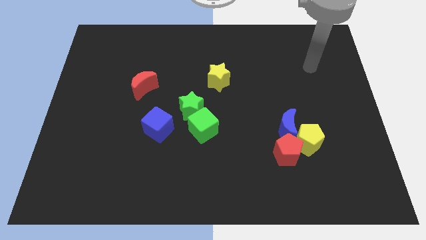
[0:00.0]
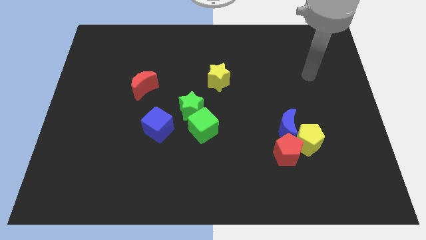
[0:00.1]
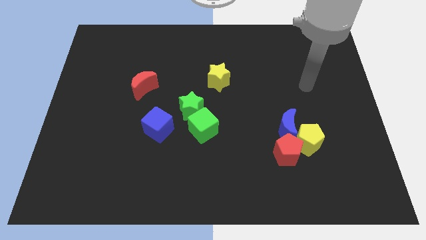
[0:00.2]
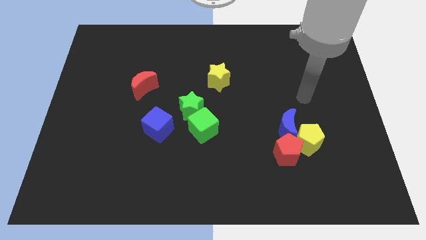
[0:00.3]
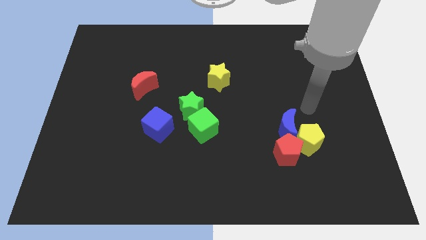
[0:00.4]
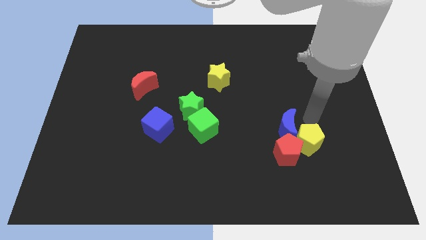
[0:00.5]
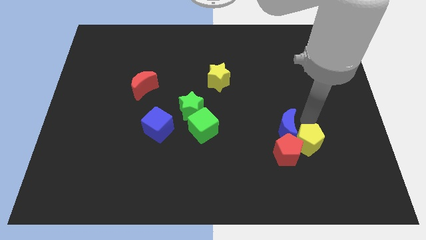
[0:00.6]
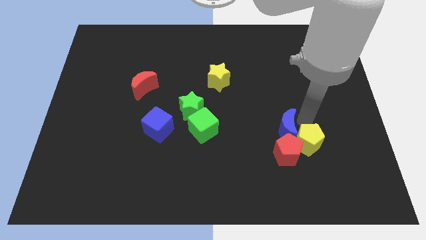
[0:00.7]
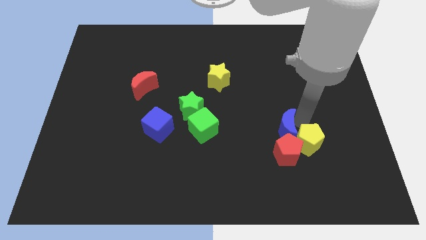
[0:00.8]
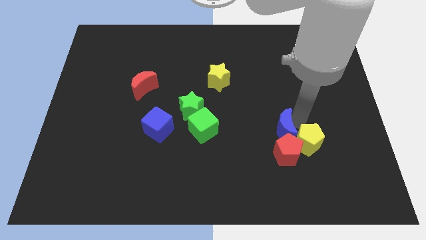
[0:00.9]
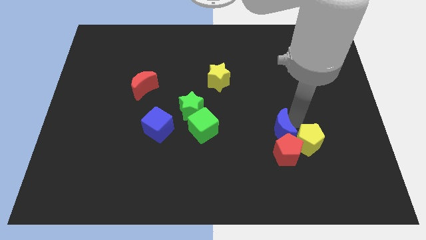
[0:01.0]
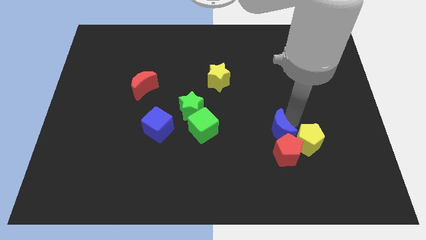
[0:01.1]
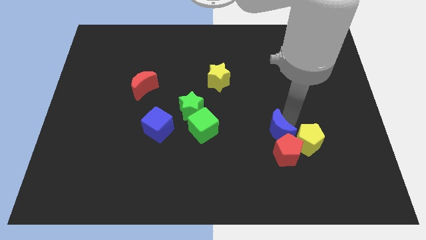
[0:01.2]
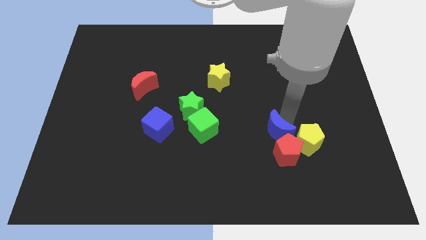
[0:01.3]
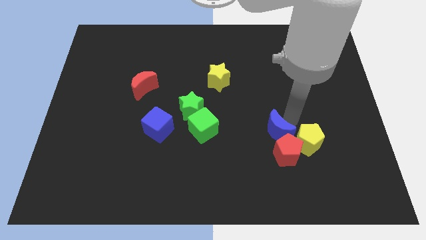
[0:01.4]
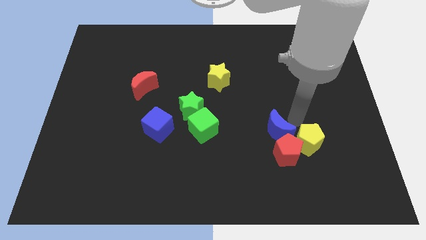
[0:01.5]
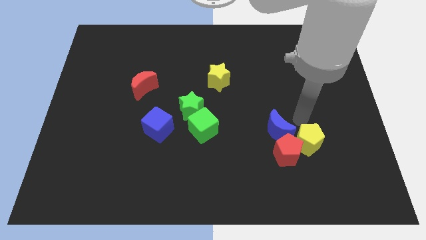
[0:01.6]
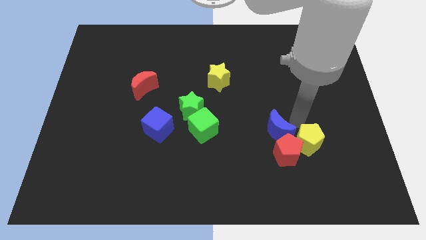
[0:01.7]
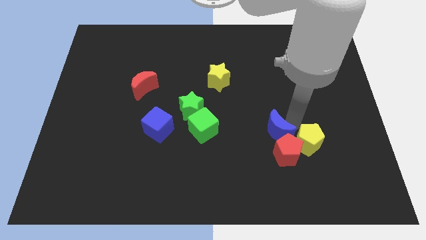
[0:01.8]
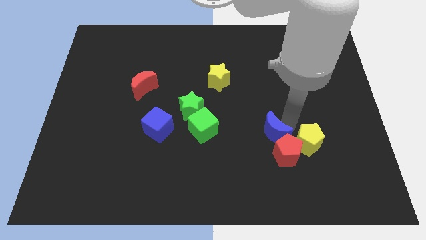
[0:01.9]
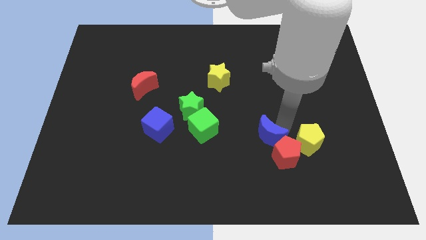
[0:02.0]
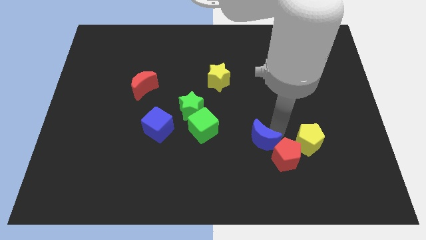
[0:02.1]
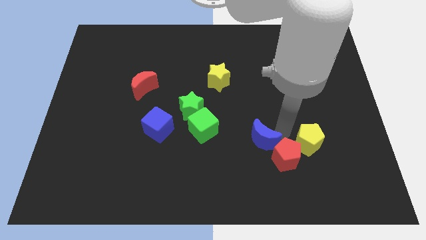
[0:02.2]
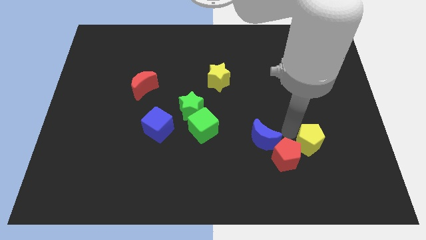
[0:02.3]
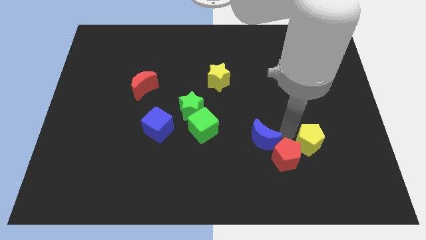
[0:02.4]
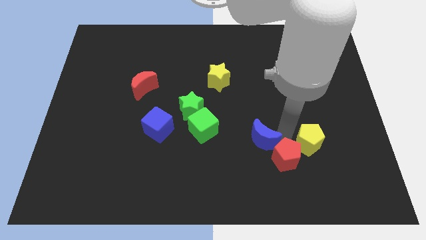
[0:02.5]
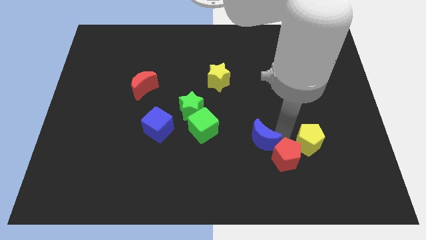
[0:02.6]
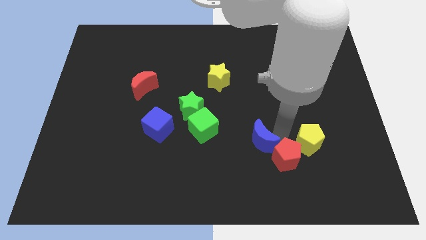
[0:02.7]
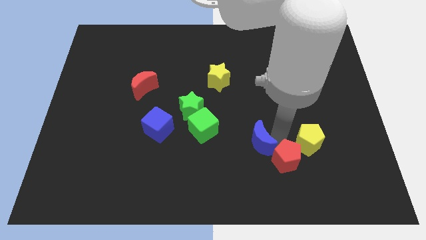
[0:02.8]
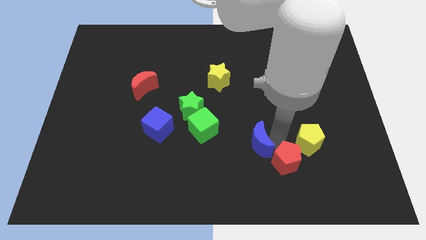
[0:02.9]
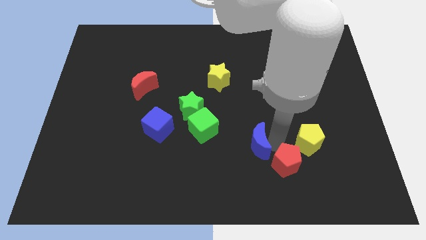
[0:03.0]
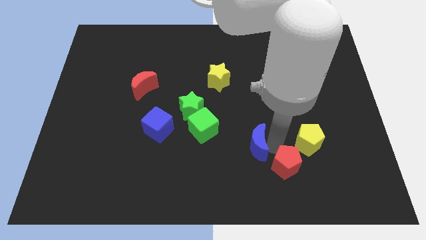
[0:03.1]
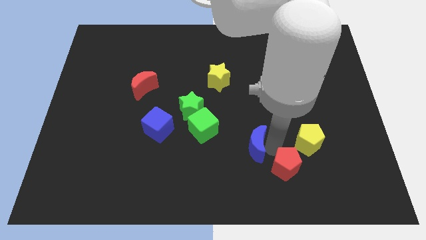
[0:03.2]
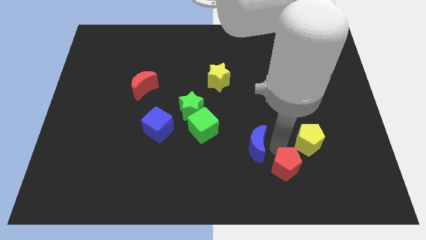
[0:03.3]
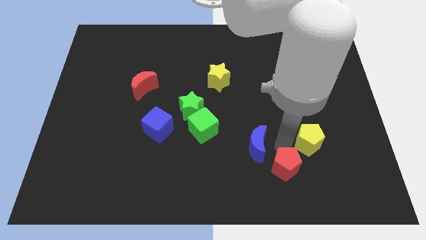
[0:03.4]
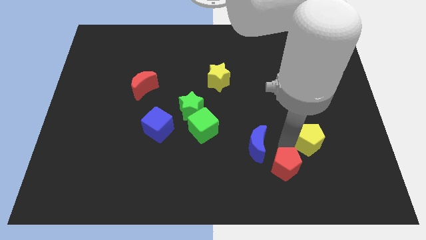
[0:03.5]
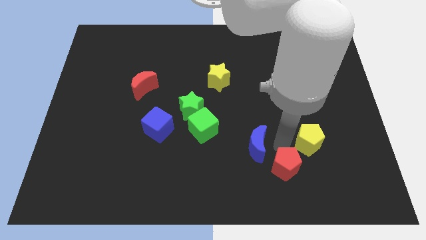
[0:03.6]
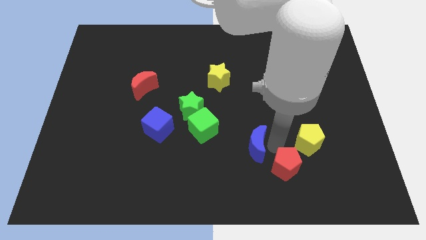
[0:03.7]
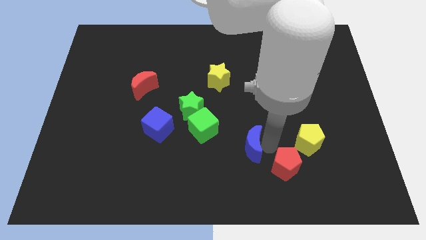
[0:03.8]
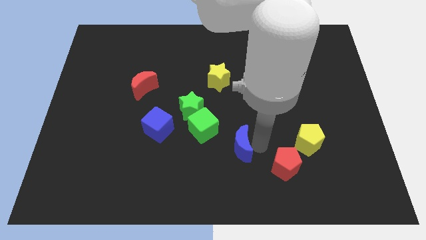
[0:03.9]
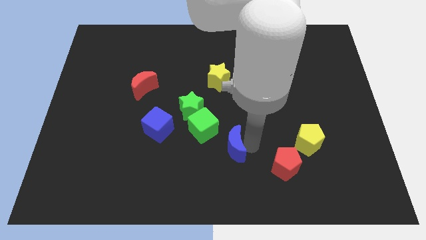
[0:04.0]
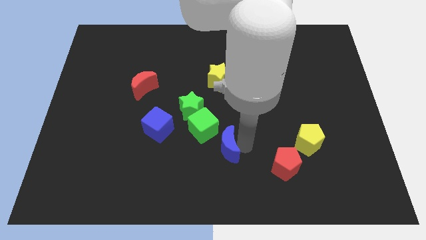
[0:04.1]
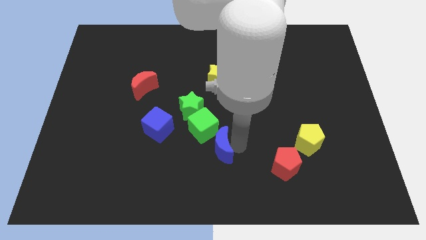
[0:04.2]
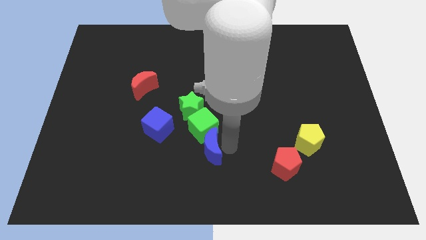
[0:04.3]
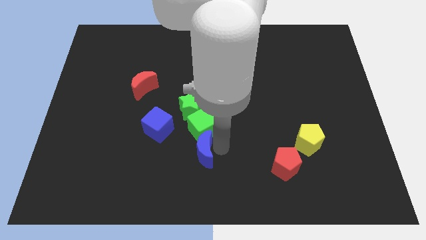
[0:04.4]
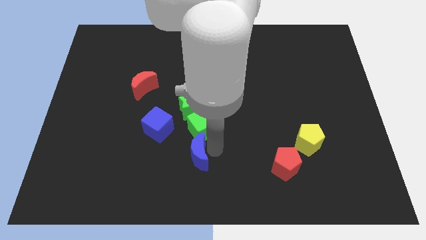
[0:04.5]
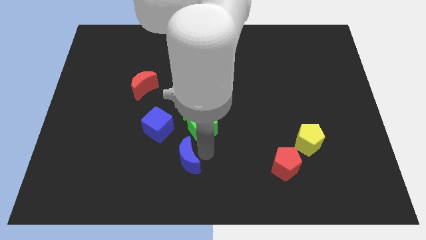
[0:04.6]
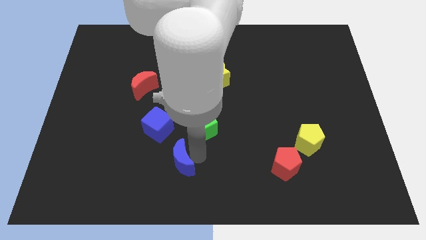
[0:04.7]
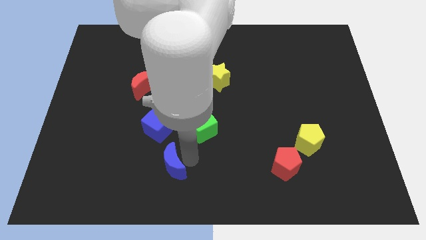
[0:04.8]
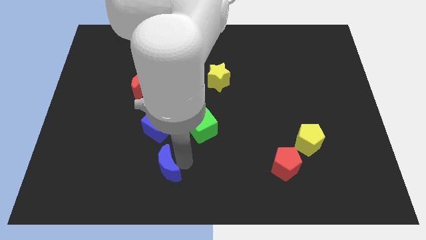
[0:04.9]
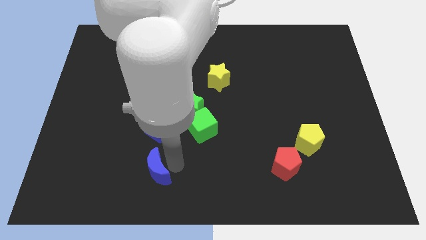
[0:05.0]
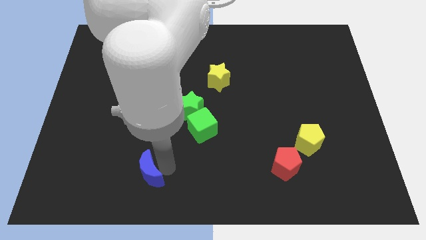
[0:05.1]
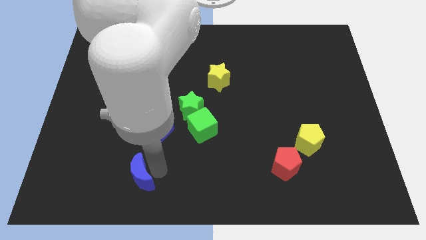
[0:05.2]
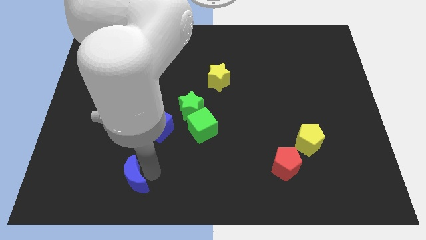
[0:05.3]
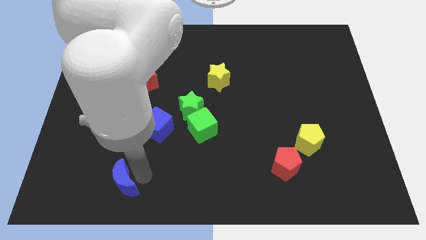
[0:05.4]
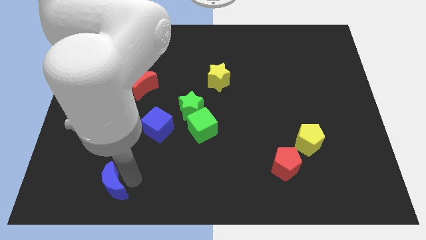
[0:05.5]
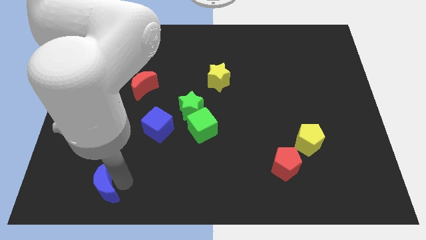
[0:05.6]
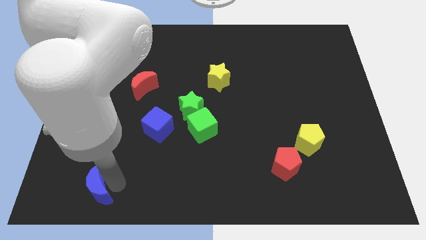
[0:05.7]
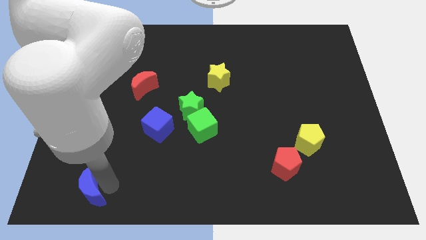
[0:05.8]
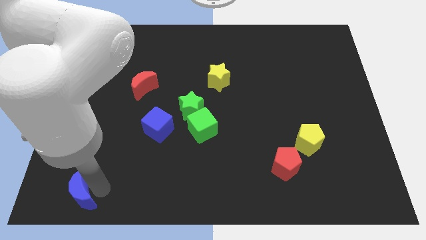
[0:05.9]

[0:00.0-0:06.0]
slide the blue moon to the bottom left

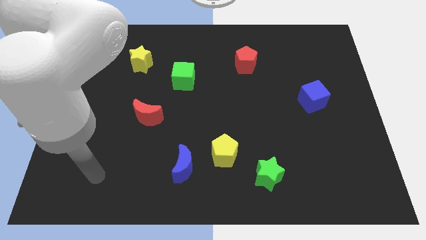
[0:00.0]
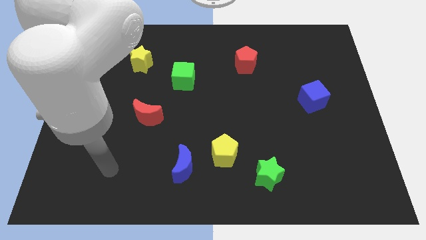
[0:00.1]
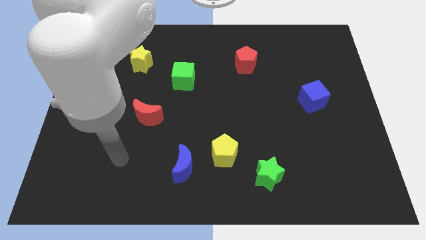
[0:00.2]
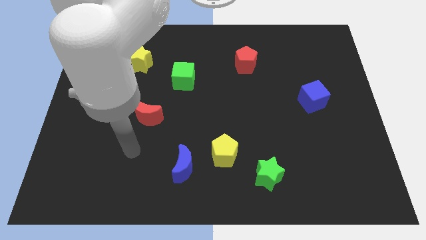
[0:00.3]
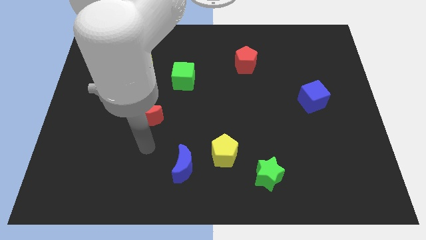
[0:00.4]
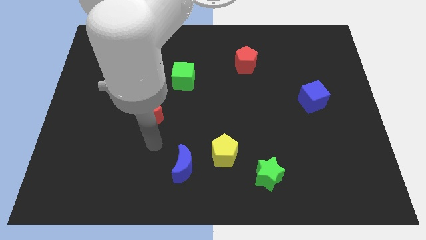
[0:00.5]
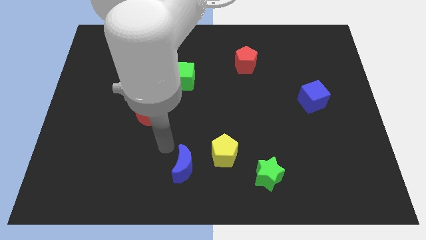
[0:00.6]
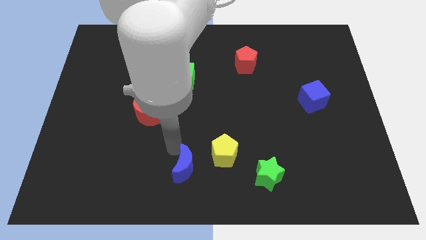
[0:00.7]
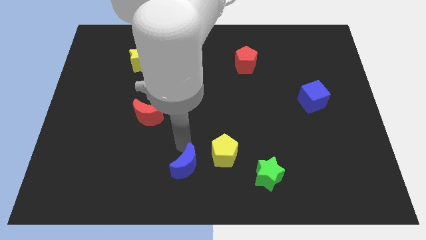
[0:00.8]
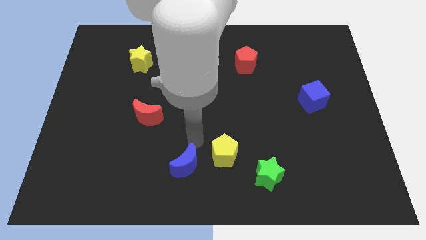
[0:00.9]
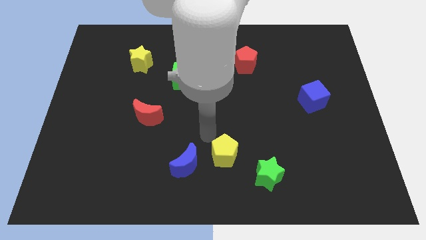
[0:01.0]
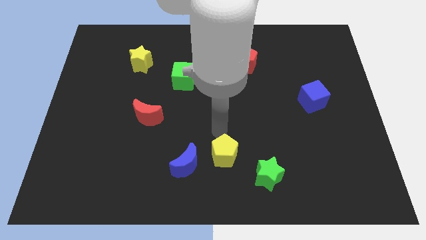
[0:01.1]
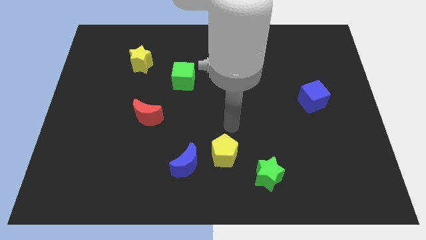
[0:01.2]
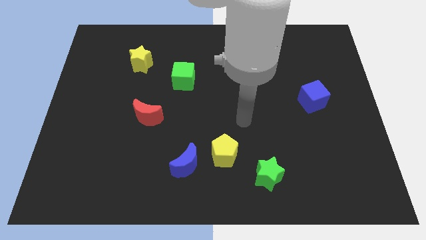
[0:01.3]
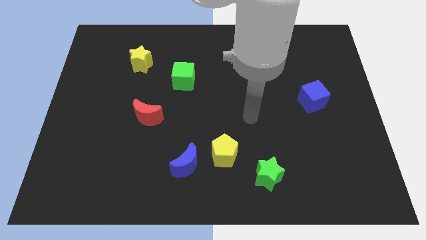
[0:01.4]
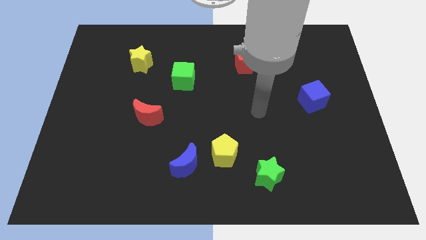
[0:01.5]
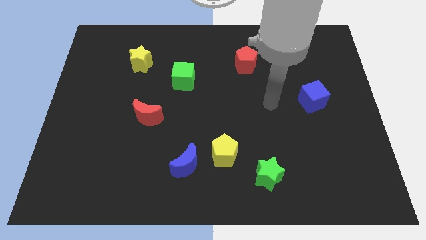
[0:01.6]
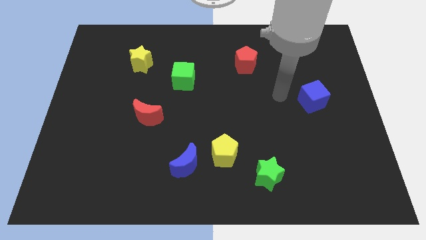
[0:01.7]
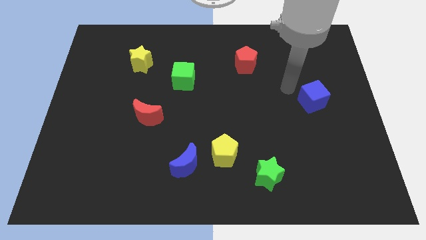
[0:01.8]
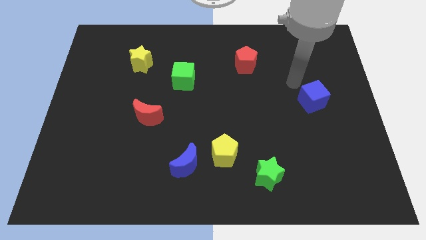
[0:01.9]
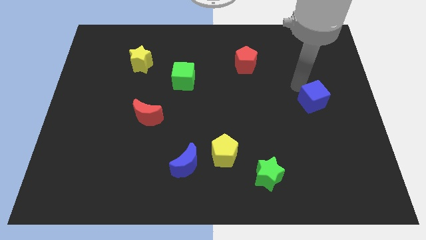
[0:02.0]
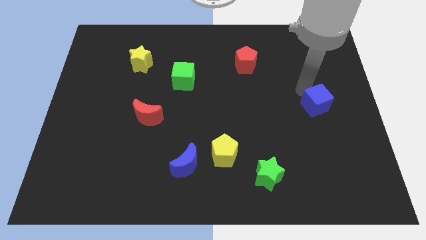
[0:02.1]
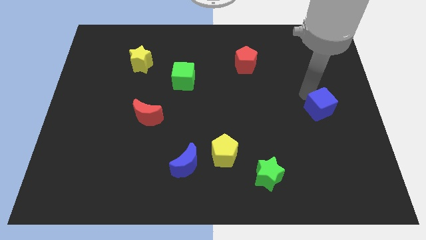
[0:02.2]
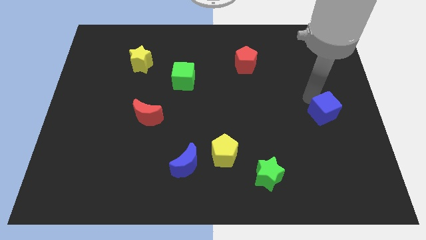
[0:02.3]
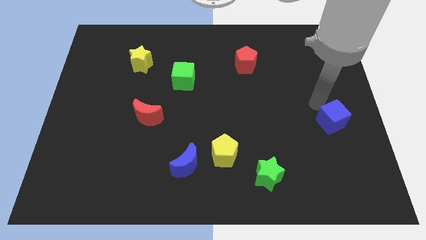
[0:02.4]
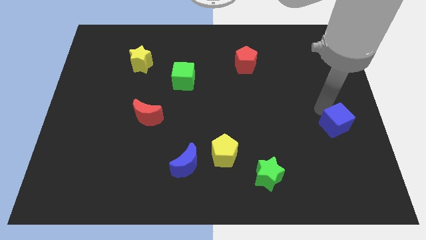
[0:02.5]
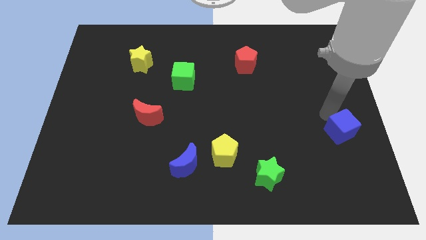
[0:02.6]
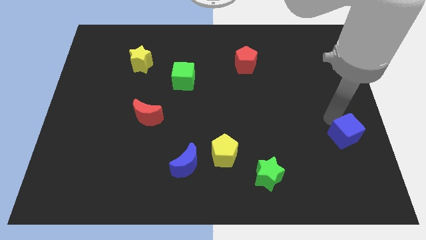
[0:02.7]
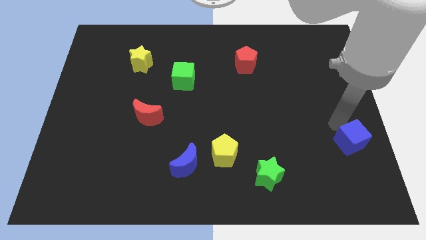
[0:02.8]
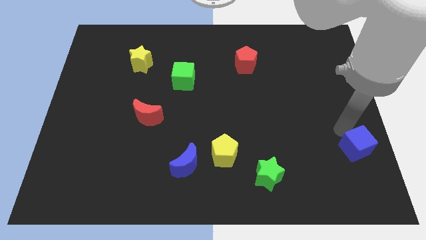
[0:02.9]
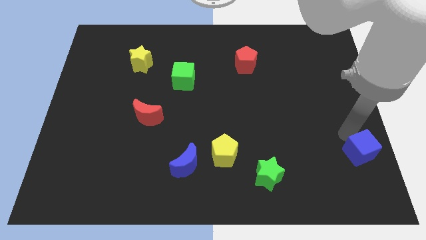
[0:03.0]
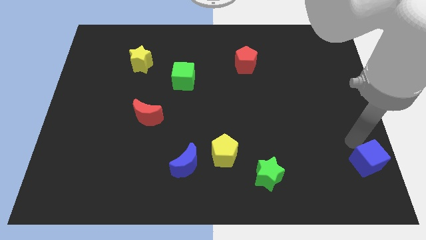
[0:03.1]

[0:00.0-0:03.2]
put the blue cube to the bottom right of the board
